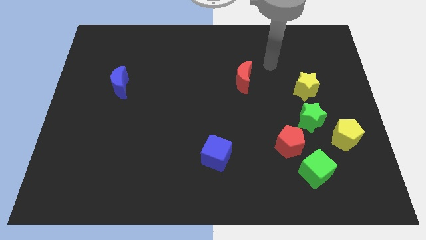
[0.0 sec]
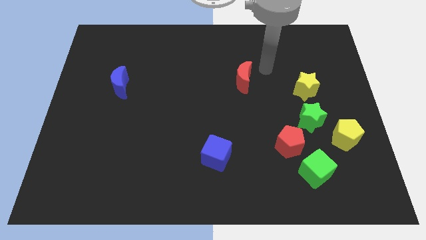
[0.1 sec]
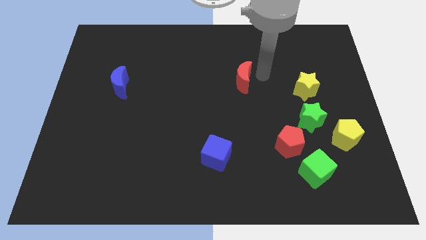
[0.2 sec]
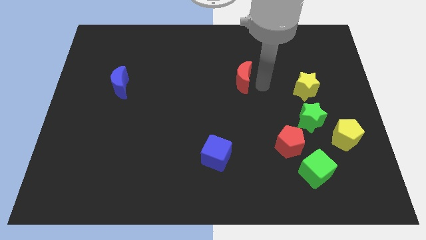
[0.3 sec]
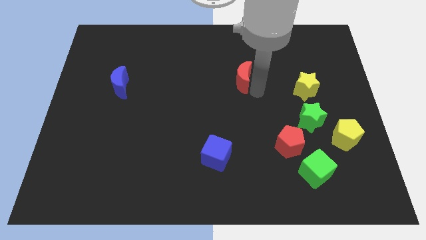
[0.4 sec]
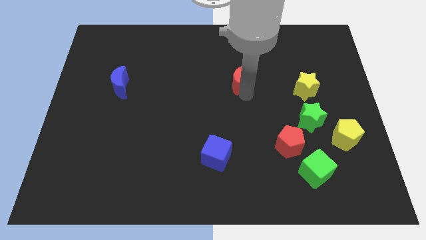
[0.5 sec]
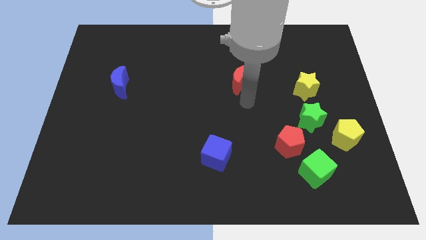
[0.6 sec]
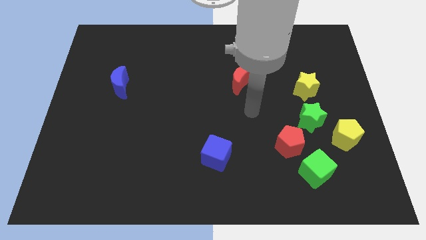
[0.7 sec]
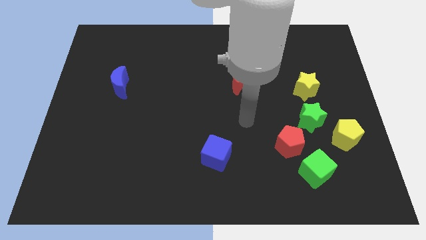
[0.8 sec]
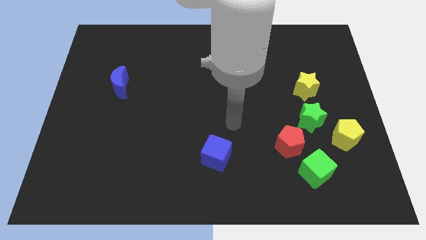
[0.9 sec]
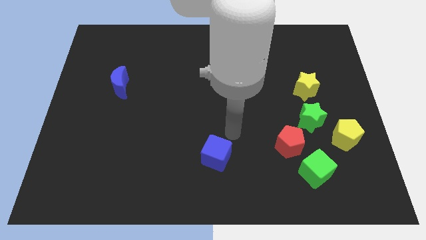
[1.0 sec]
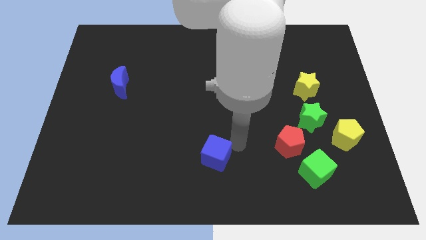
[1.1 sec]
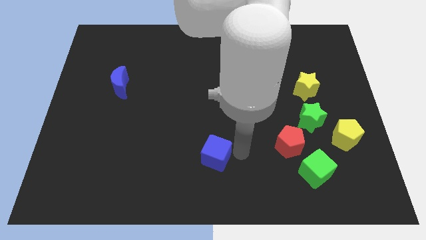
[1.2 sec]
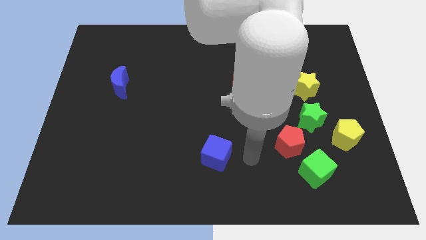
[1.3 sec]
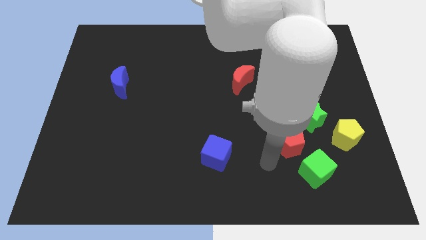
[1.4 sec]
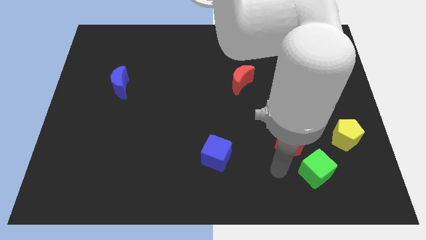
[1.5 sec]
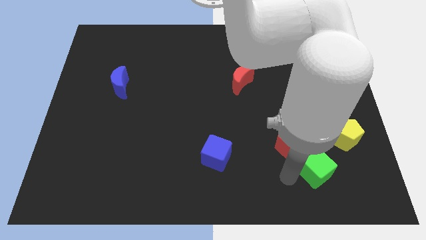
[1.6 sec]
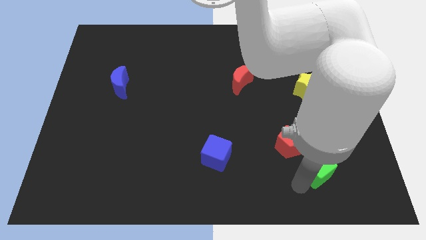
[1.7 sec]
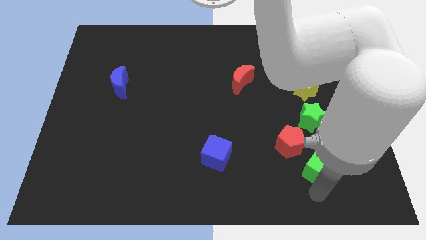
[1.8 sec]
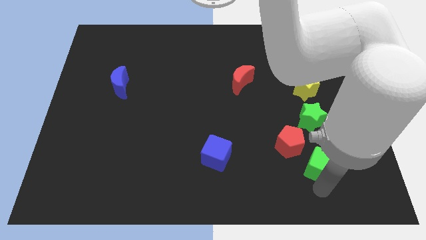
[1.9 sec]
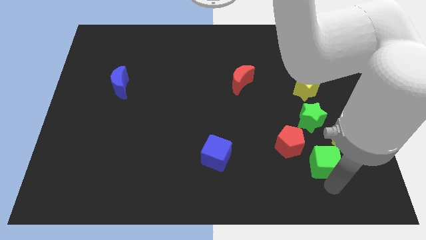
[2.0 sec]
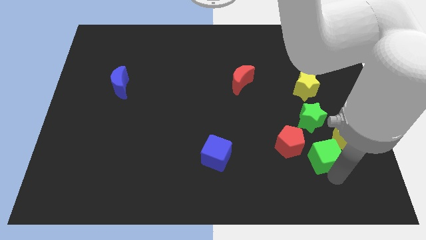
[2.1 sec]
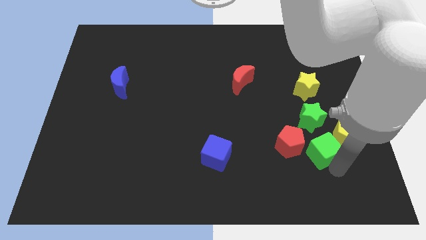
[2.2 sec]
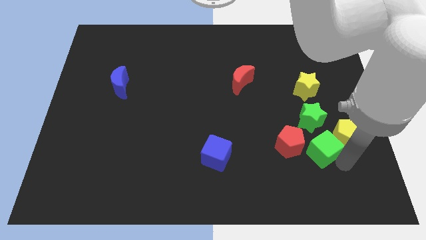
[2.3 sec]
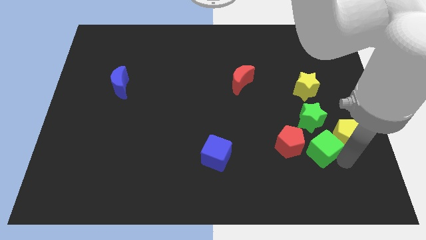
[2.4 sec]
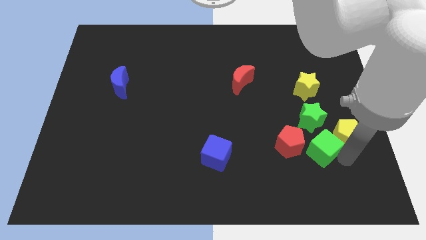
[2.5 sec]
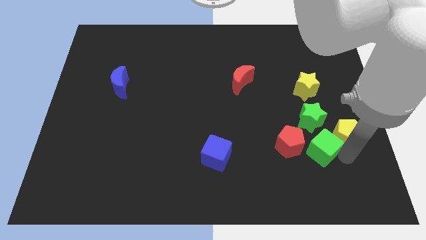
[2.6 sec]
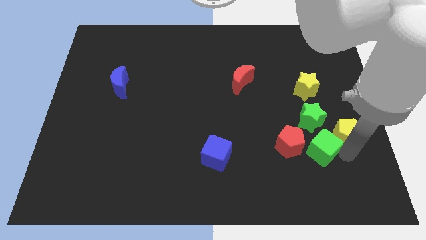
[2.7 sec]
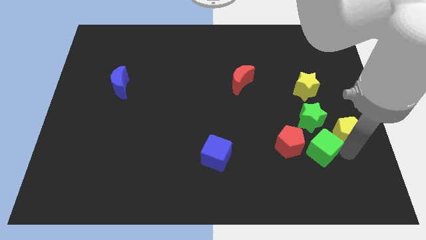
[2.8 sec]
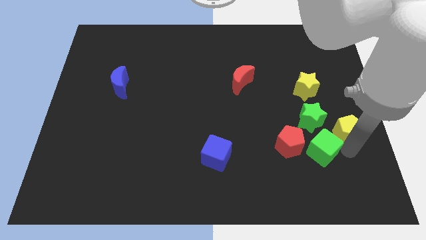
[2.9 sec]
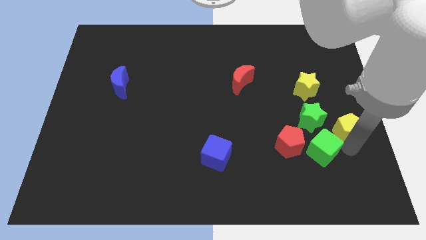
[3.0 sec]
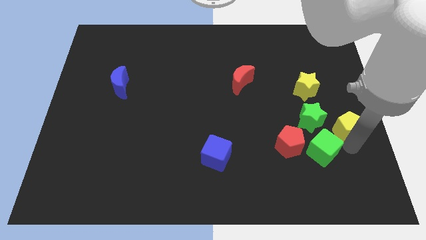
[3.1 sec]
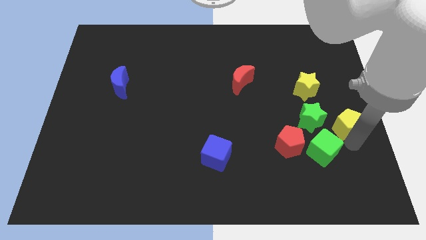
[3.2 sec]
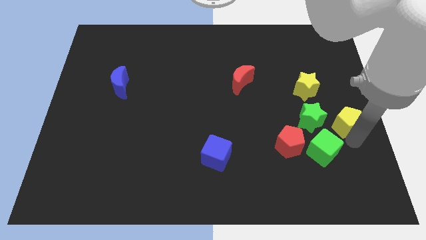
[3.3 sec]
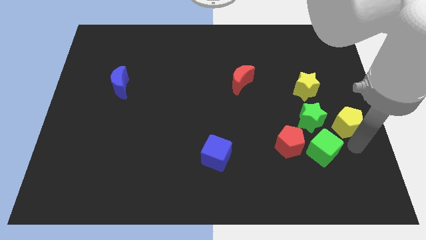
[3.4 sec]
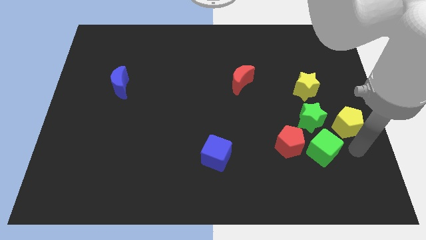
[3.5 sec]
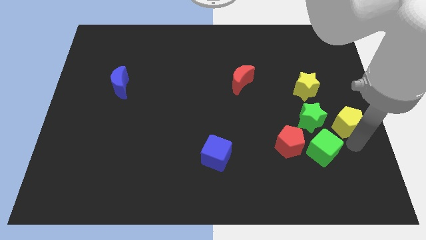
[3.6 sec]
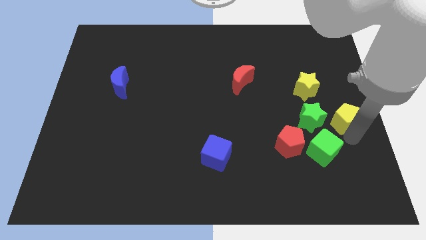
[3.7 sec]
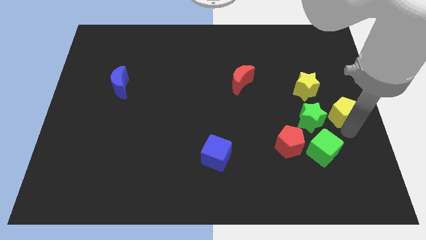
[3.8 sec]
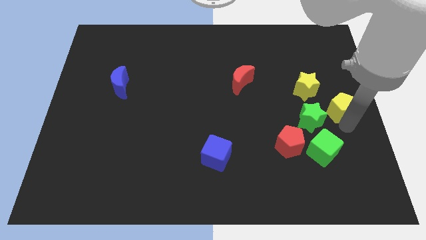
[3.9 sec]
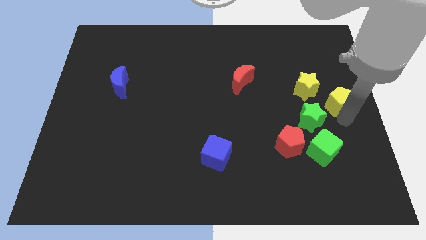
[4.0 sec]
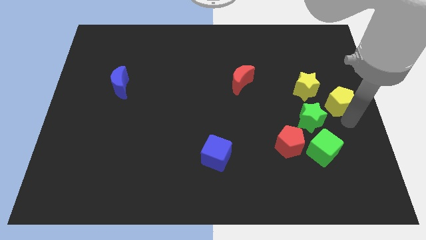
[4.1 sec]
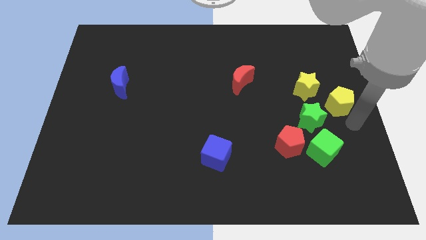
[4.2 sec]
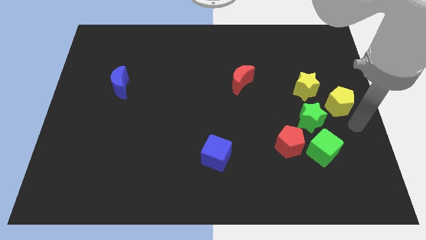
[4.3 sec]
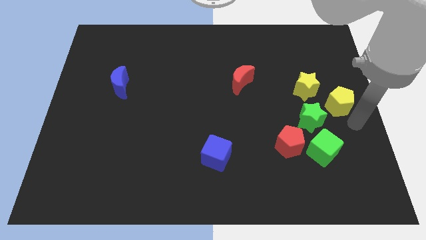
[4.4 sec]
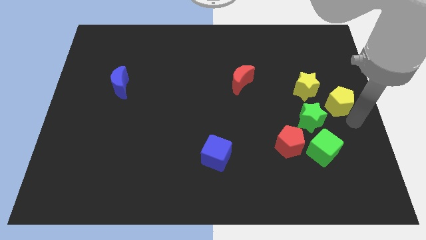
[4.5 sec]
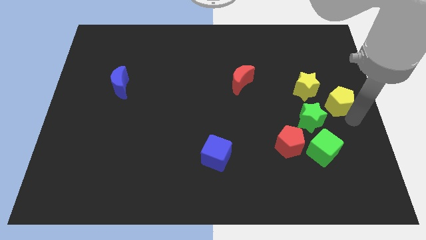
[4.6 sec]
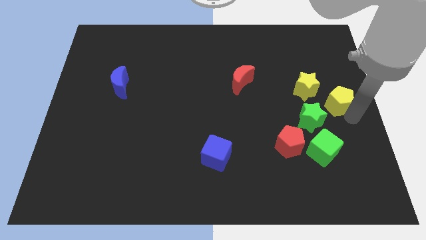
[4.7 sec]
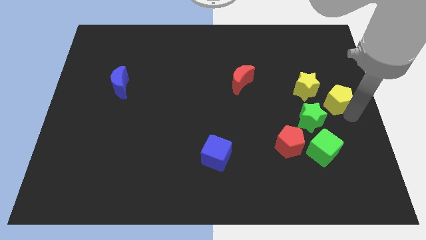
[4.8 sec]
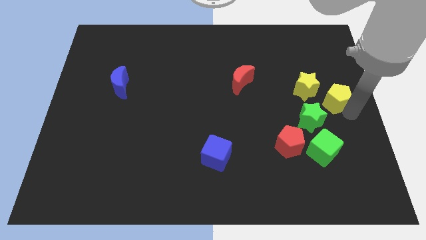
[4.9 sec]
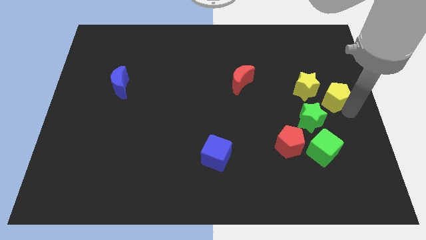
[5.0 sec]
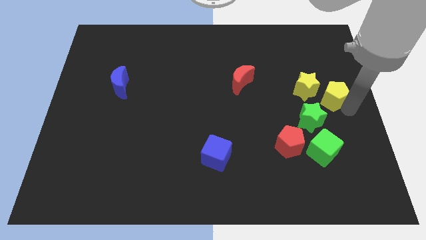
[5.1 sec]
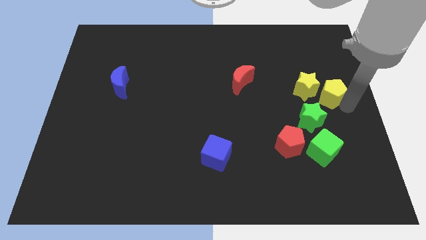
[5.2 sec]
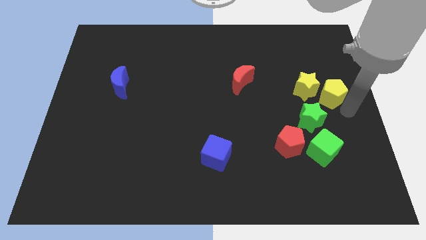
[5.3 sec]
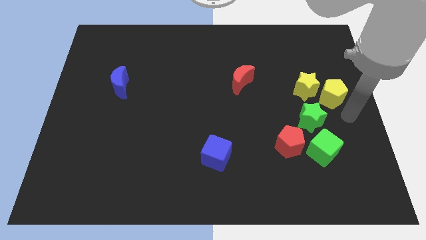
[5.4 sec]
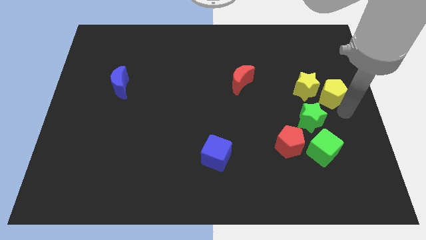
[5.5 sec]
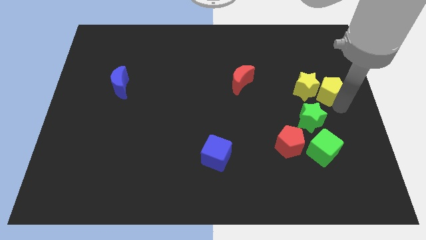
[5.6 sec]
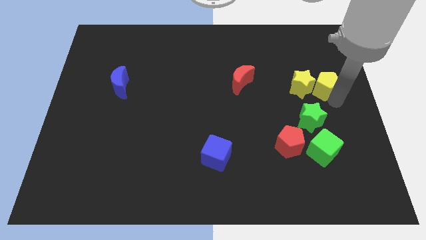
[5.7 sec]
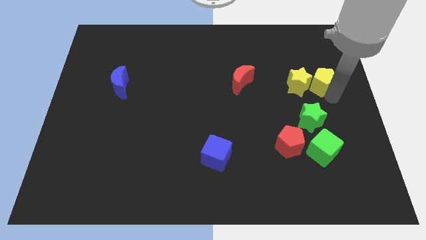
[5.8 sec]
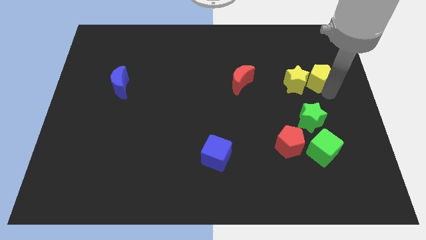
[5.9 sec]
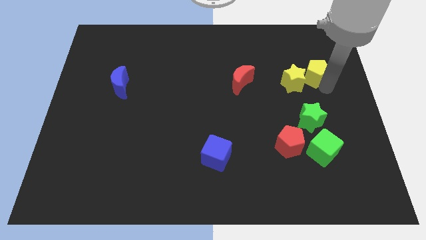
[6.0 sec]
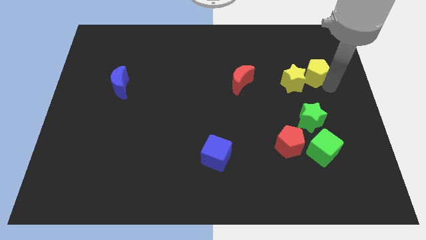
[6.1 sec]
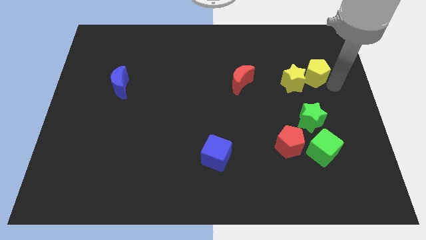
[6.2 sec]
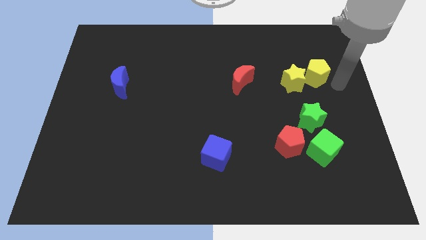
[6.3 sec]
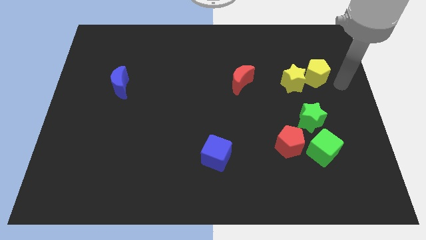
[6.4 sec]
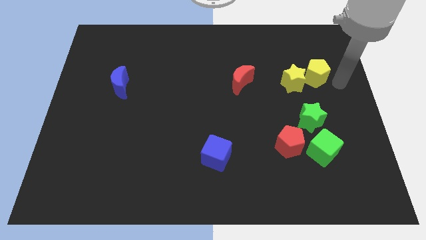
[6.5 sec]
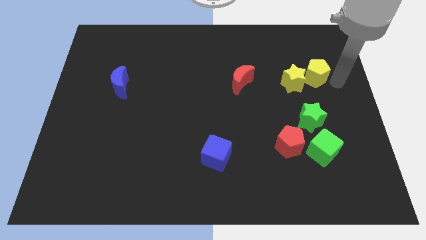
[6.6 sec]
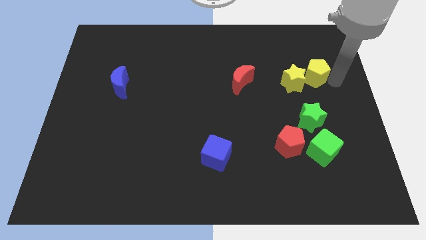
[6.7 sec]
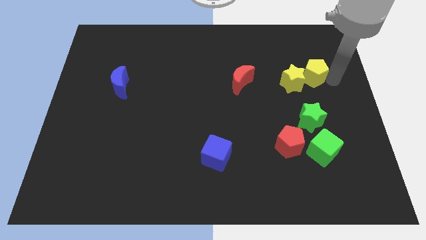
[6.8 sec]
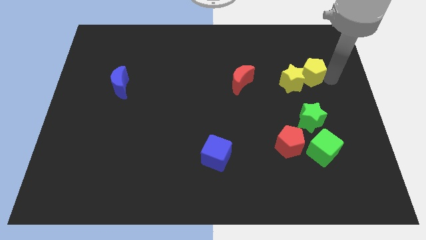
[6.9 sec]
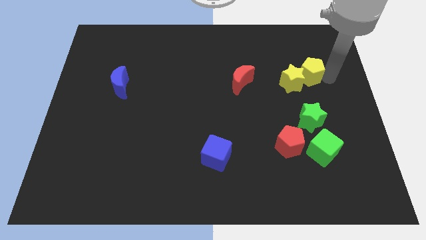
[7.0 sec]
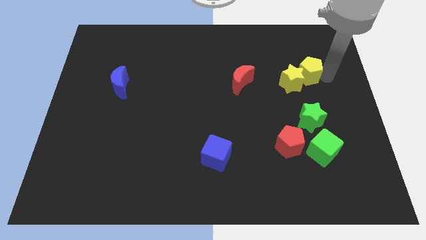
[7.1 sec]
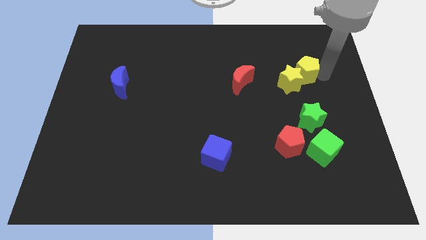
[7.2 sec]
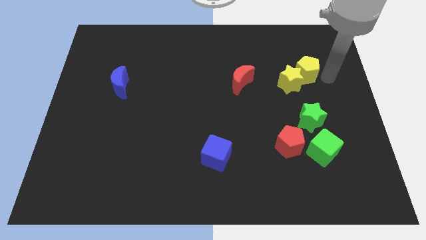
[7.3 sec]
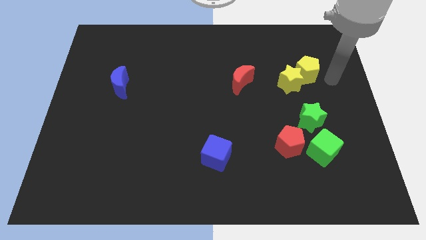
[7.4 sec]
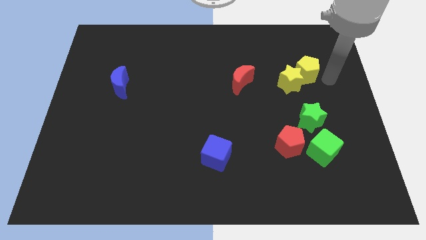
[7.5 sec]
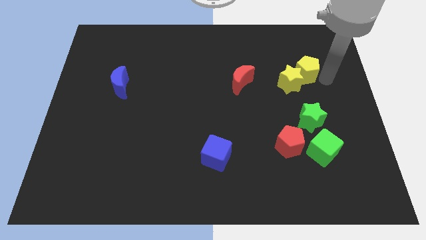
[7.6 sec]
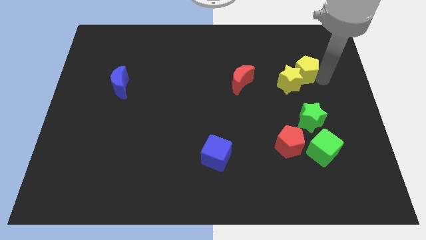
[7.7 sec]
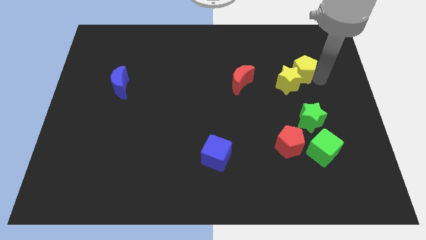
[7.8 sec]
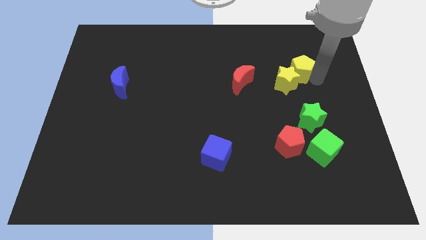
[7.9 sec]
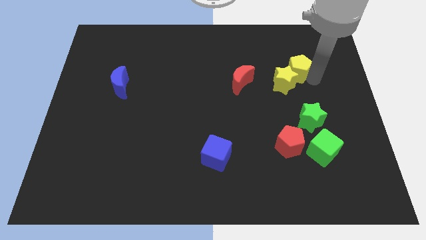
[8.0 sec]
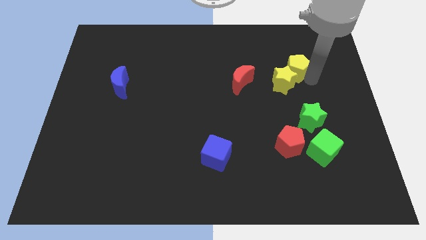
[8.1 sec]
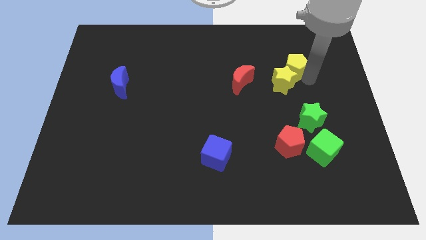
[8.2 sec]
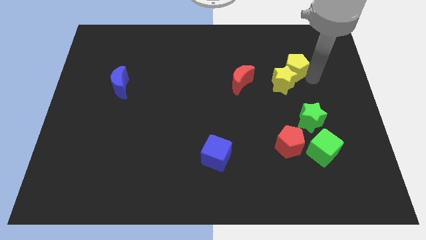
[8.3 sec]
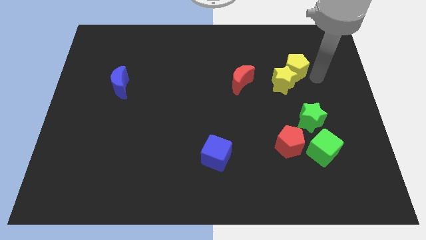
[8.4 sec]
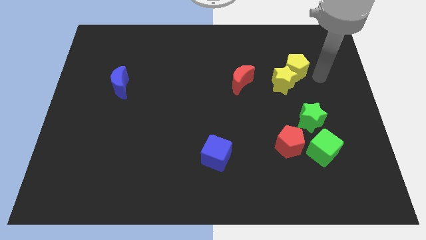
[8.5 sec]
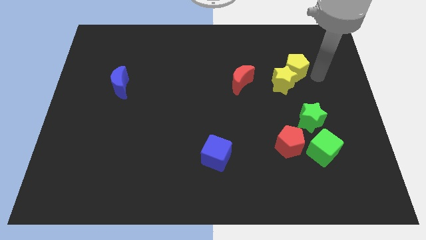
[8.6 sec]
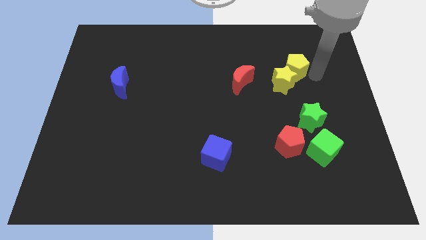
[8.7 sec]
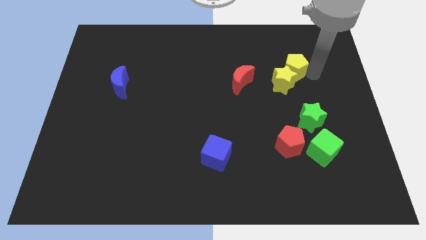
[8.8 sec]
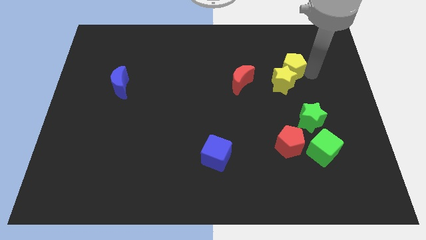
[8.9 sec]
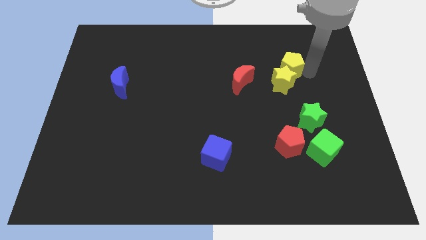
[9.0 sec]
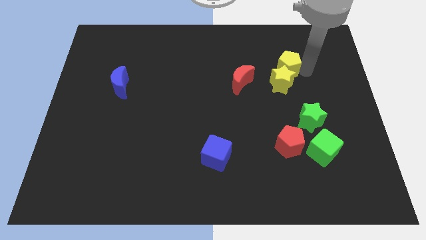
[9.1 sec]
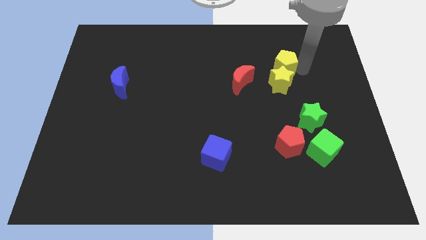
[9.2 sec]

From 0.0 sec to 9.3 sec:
slide the yellow pentagon upwards and left diagonally
